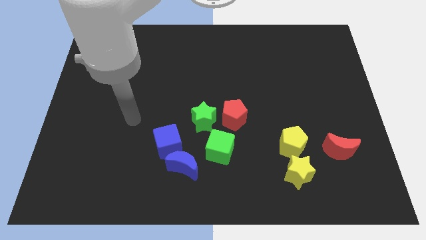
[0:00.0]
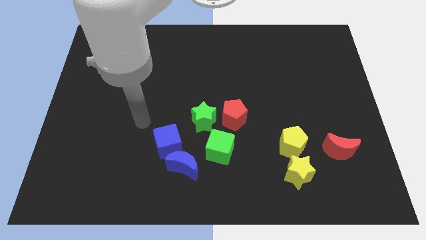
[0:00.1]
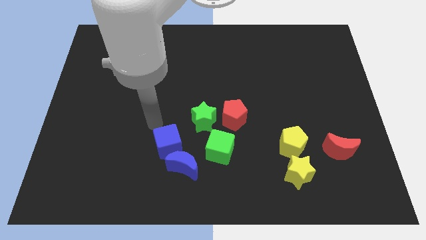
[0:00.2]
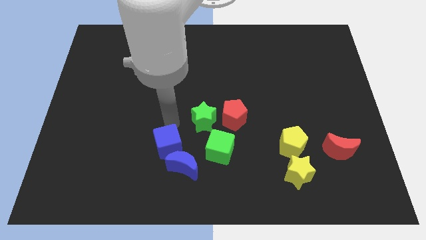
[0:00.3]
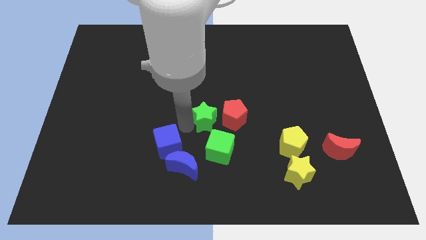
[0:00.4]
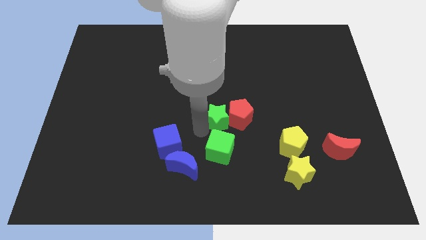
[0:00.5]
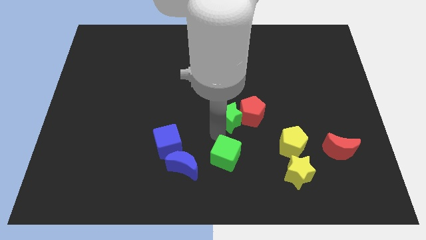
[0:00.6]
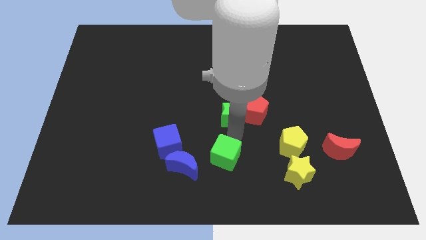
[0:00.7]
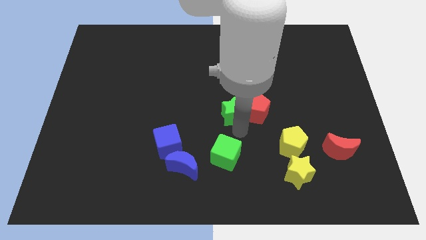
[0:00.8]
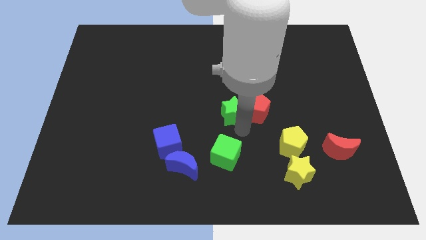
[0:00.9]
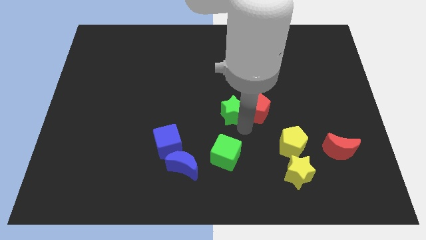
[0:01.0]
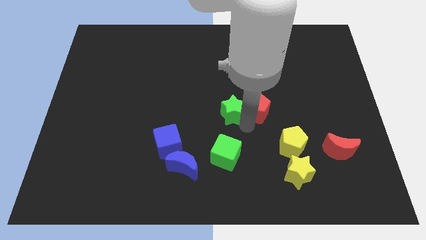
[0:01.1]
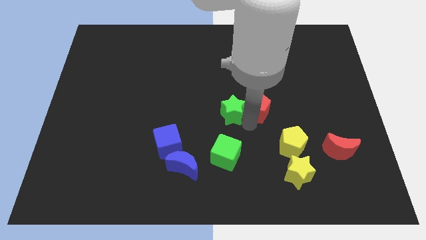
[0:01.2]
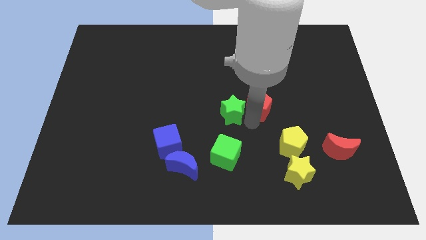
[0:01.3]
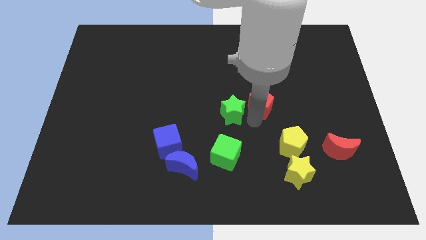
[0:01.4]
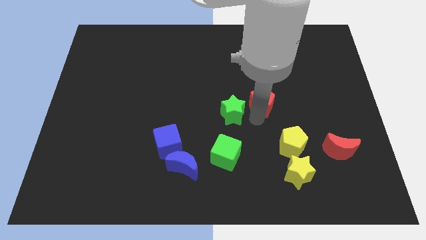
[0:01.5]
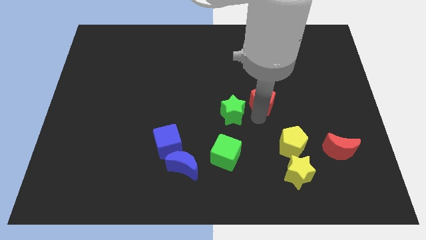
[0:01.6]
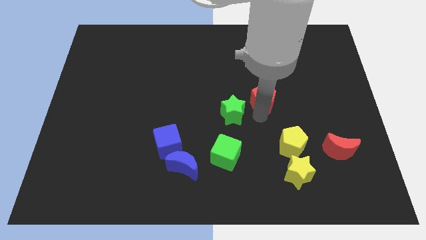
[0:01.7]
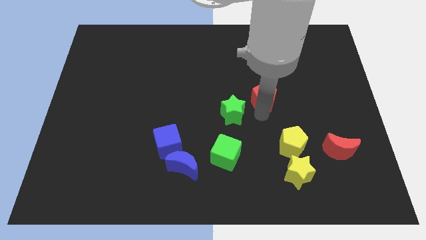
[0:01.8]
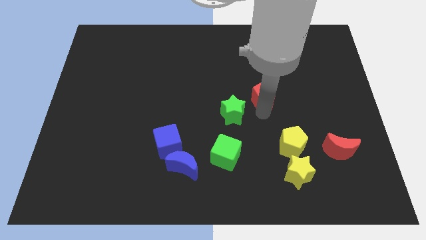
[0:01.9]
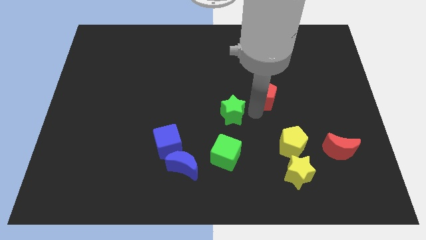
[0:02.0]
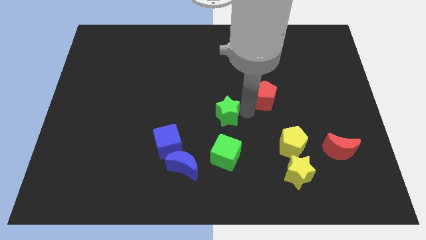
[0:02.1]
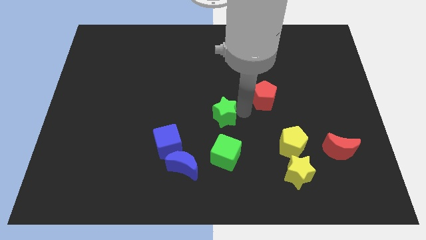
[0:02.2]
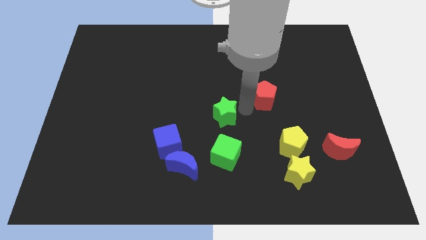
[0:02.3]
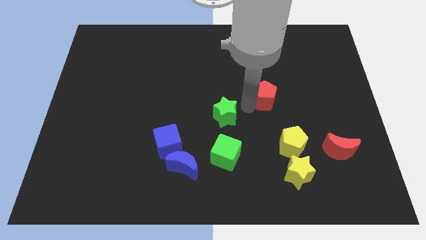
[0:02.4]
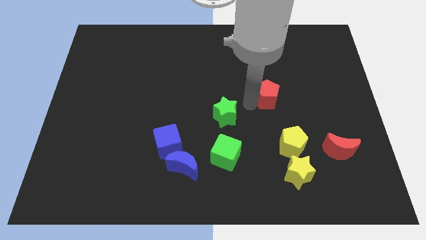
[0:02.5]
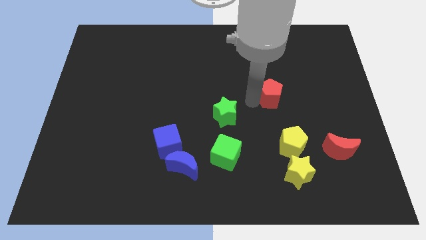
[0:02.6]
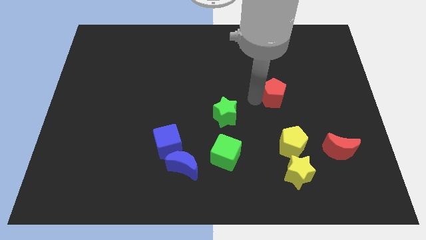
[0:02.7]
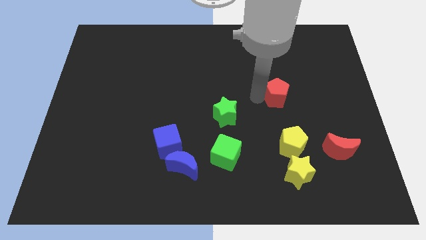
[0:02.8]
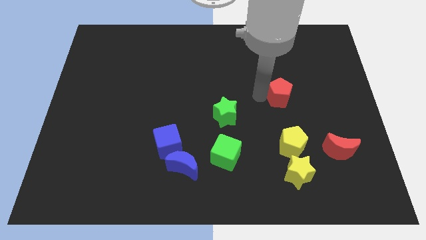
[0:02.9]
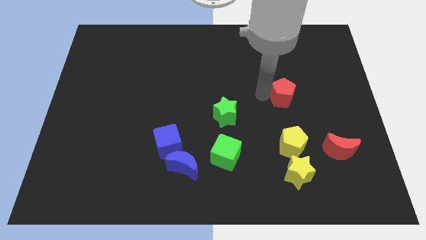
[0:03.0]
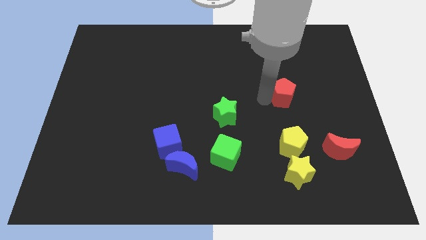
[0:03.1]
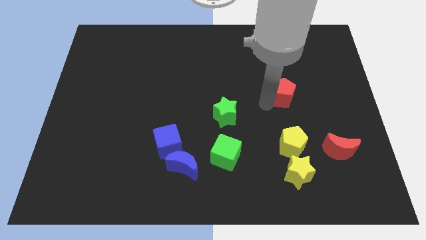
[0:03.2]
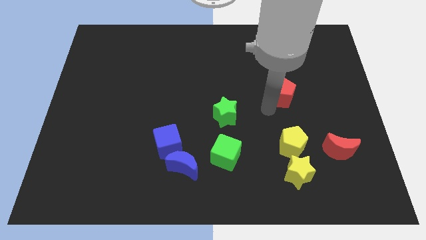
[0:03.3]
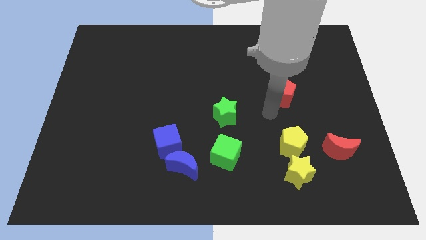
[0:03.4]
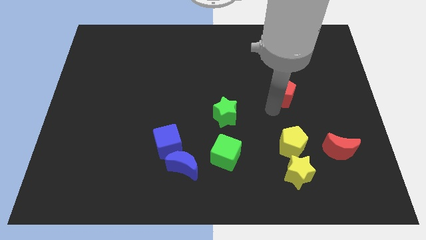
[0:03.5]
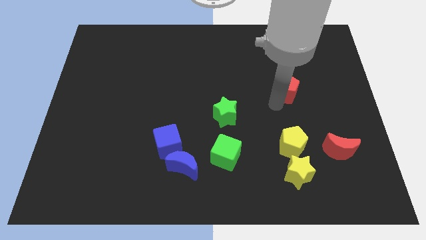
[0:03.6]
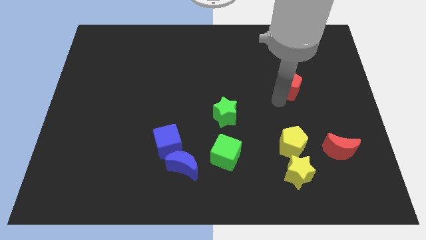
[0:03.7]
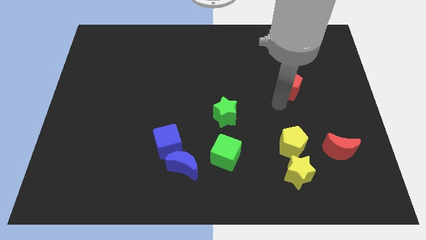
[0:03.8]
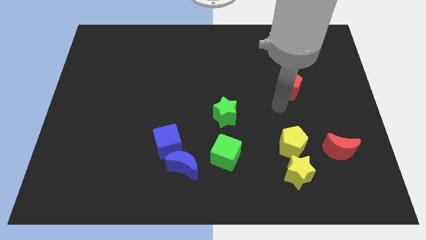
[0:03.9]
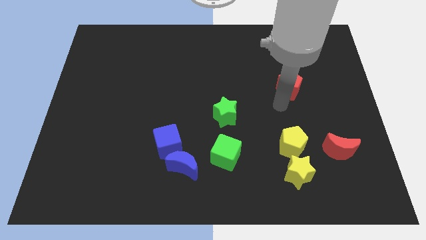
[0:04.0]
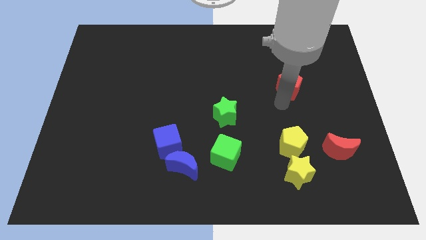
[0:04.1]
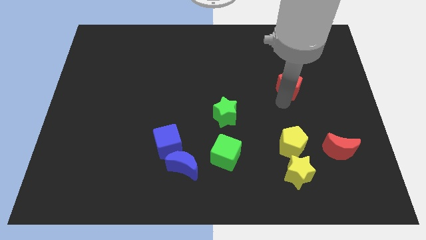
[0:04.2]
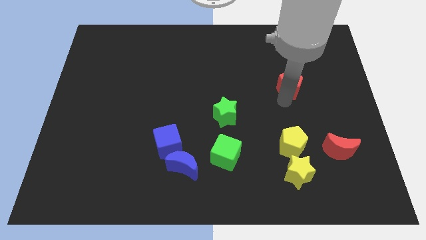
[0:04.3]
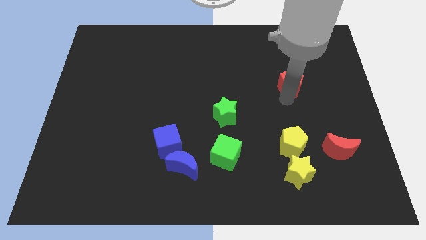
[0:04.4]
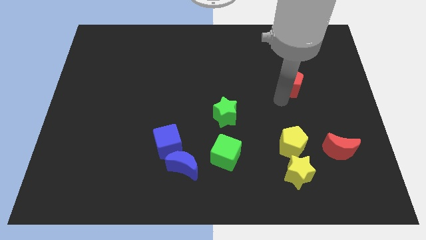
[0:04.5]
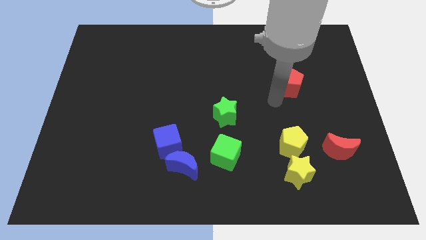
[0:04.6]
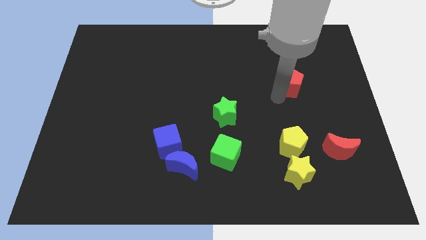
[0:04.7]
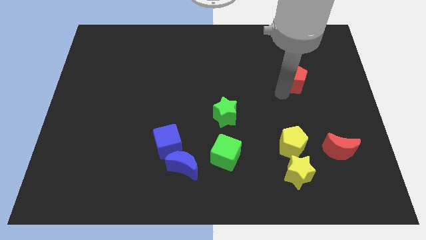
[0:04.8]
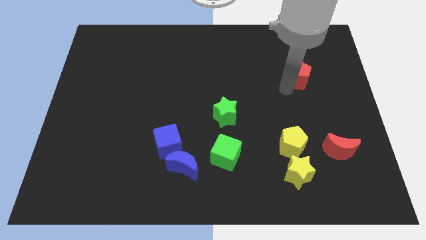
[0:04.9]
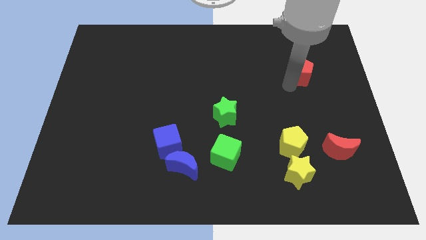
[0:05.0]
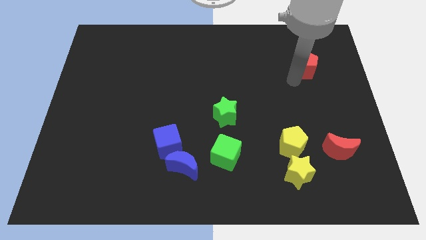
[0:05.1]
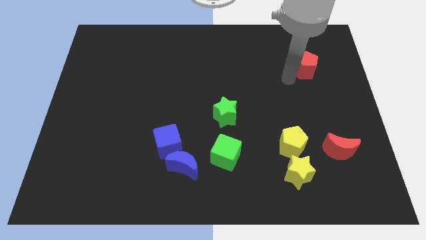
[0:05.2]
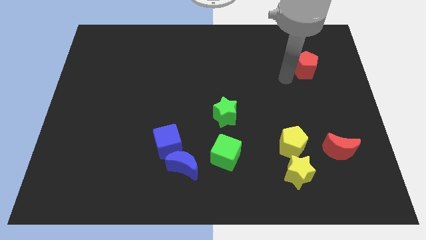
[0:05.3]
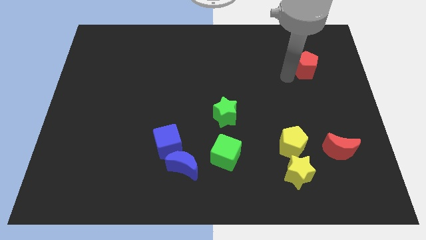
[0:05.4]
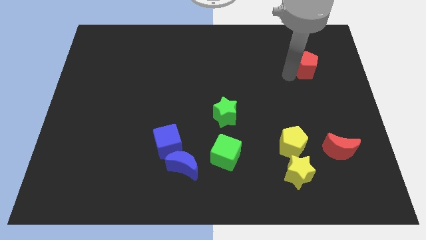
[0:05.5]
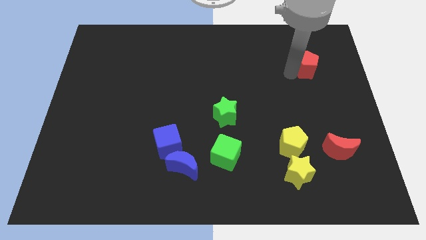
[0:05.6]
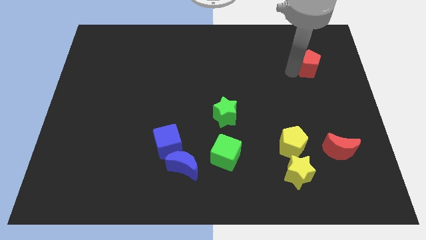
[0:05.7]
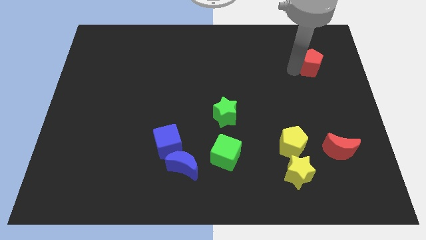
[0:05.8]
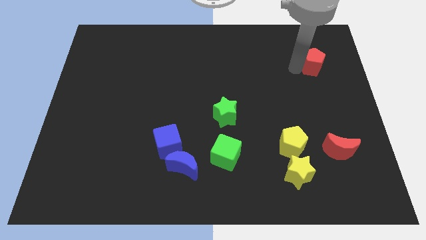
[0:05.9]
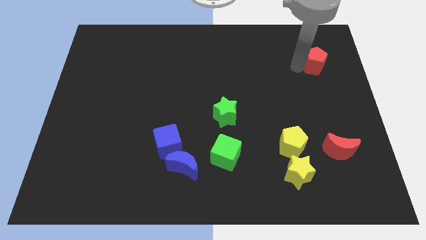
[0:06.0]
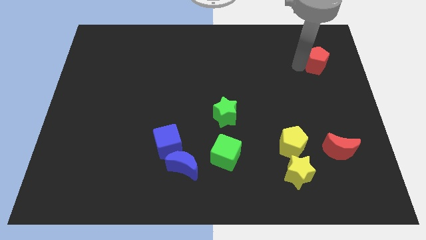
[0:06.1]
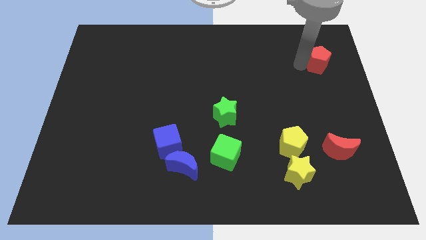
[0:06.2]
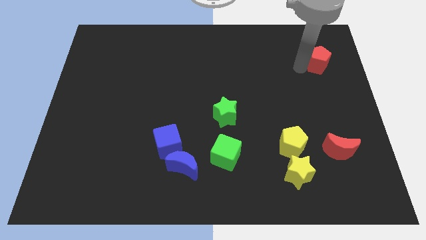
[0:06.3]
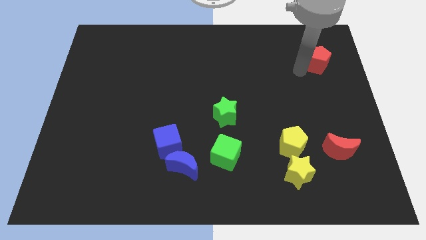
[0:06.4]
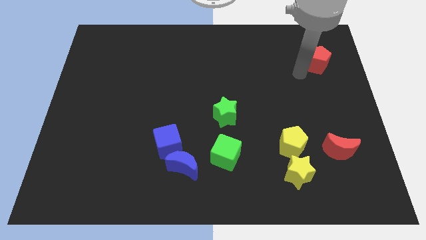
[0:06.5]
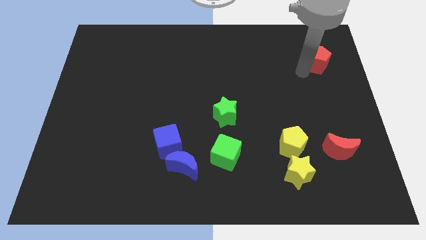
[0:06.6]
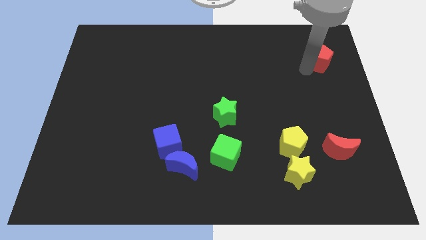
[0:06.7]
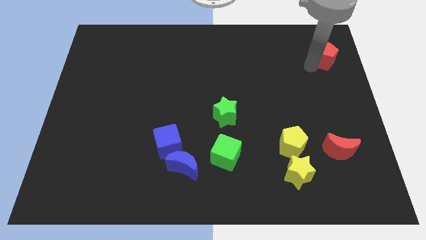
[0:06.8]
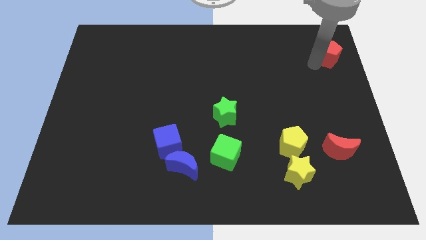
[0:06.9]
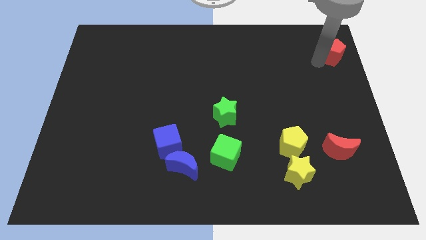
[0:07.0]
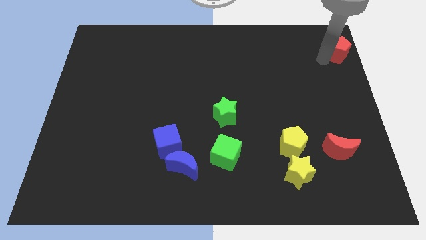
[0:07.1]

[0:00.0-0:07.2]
put the red pentagon to the top right
